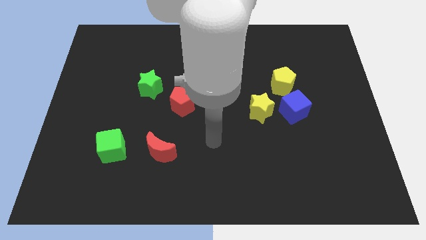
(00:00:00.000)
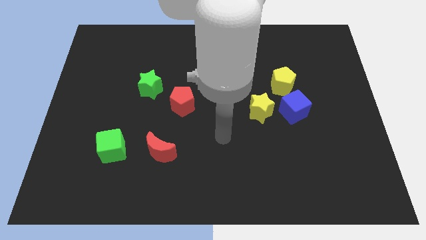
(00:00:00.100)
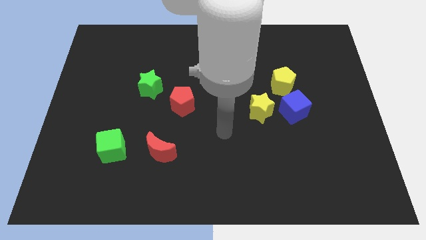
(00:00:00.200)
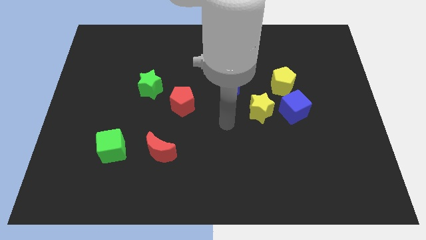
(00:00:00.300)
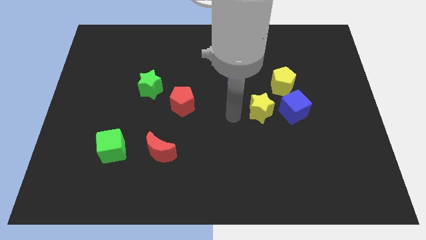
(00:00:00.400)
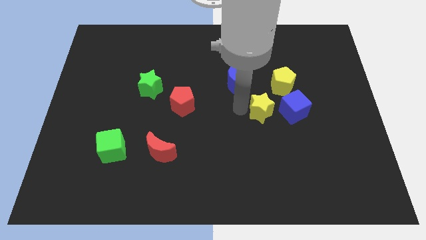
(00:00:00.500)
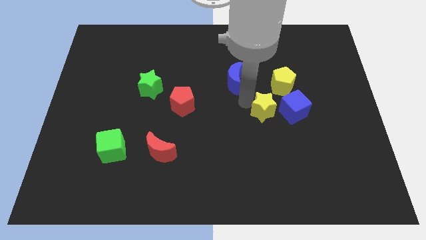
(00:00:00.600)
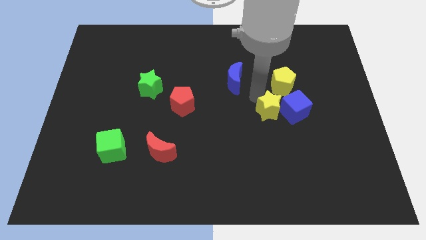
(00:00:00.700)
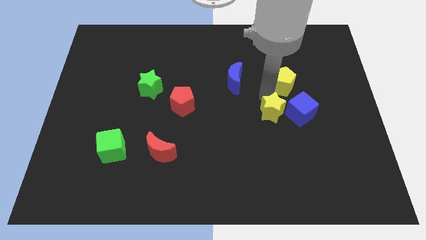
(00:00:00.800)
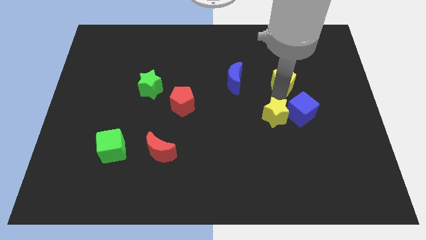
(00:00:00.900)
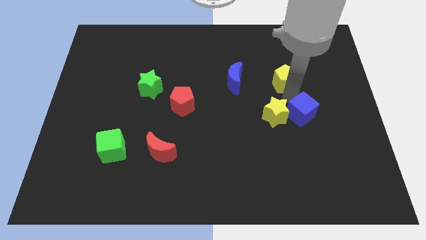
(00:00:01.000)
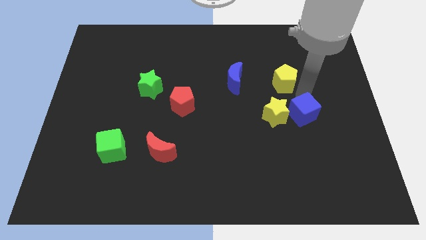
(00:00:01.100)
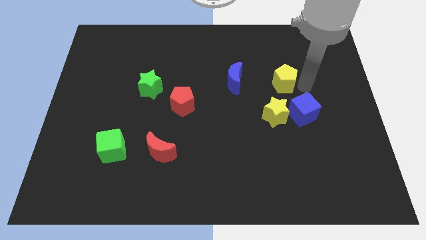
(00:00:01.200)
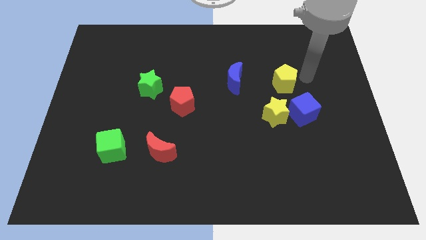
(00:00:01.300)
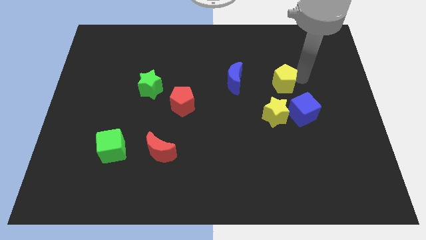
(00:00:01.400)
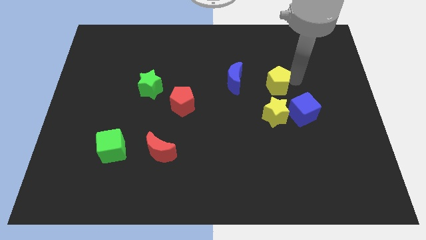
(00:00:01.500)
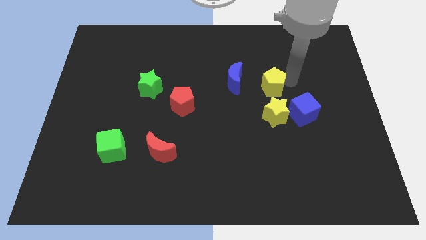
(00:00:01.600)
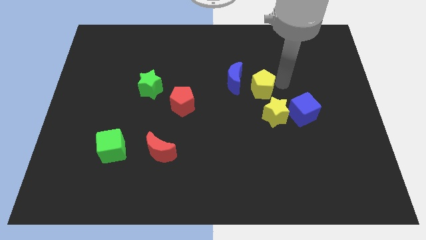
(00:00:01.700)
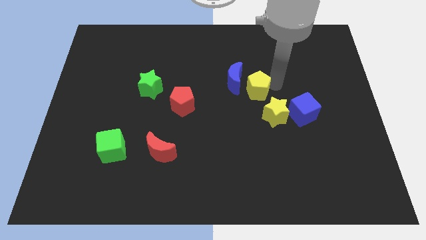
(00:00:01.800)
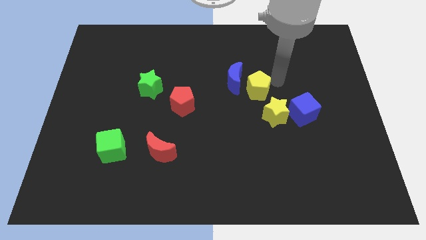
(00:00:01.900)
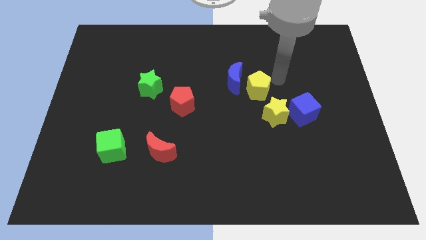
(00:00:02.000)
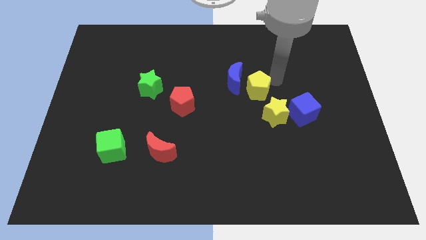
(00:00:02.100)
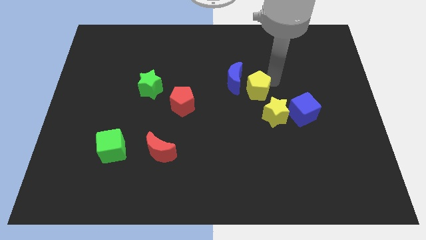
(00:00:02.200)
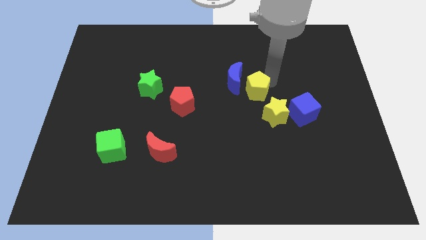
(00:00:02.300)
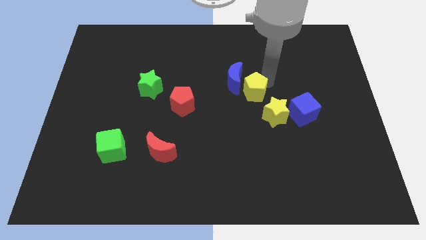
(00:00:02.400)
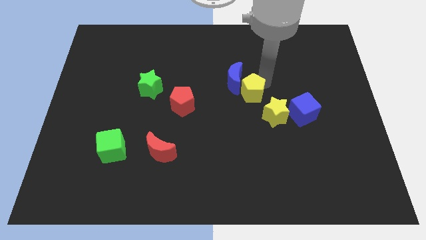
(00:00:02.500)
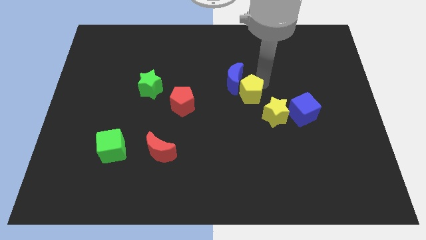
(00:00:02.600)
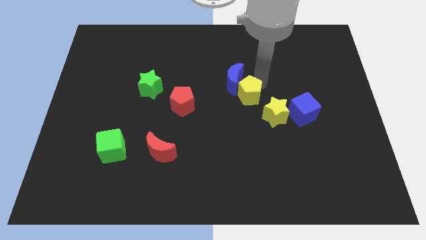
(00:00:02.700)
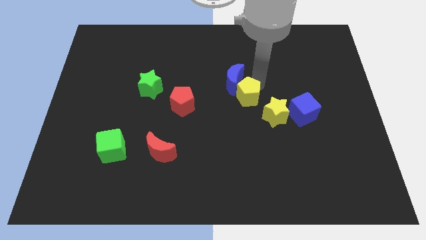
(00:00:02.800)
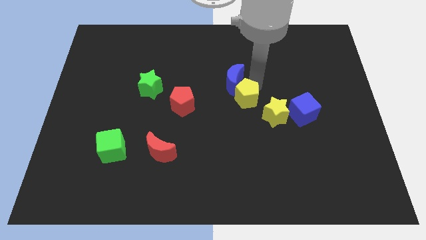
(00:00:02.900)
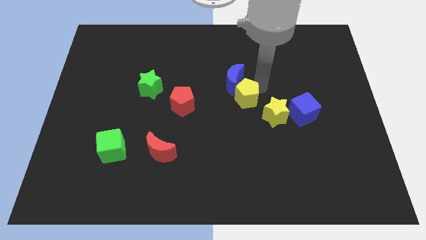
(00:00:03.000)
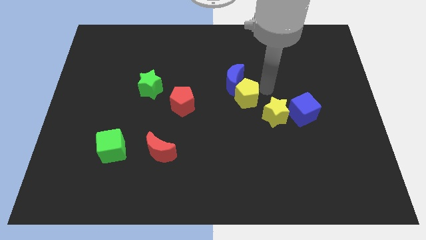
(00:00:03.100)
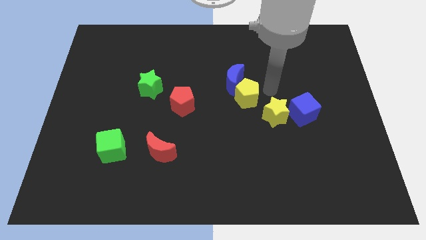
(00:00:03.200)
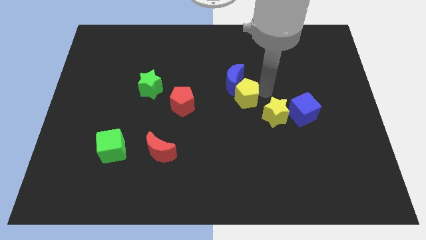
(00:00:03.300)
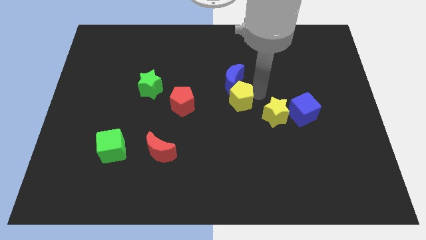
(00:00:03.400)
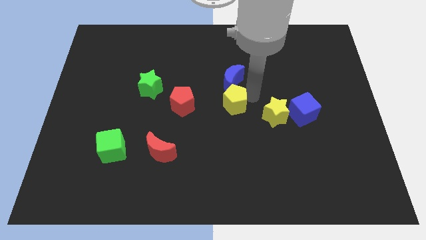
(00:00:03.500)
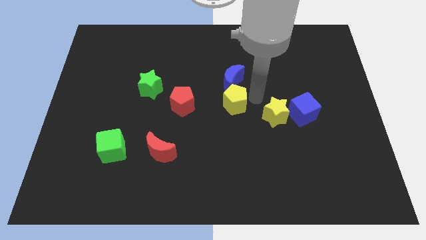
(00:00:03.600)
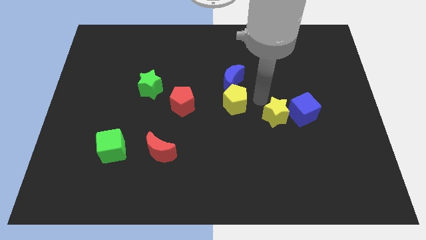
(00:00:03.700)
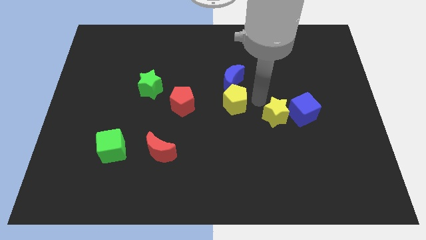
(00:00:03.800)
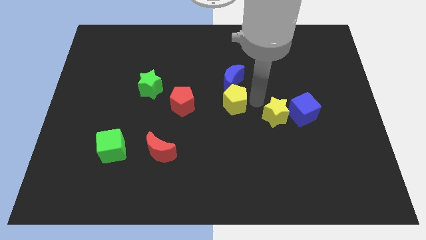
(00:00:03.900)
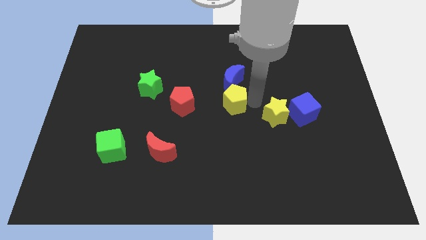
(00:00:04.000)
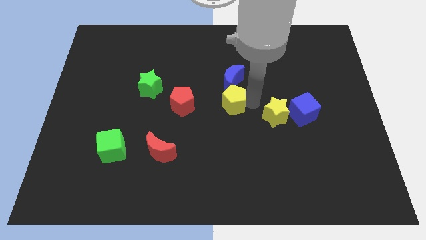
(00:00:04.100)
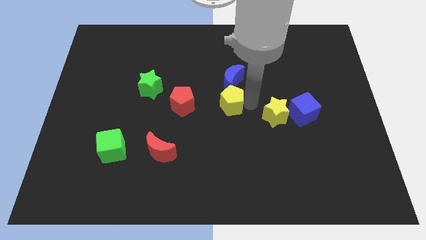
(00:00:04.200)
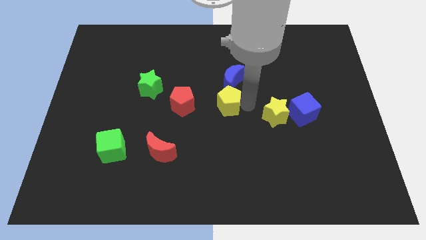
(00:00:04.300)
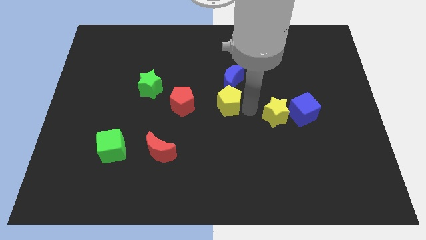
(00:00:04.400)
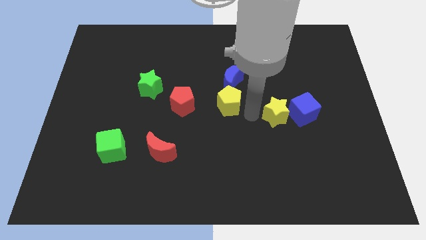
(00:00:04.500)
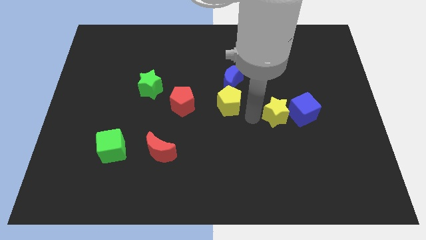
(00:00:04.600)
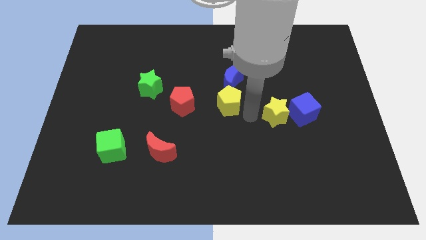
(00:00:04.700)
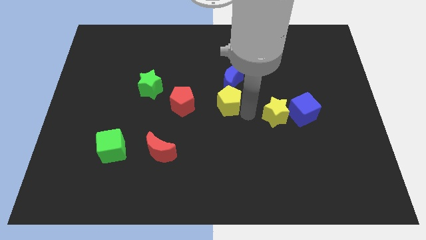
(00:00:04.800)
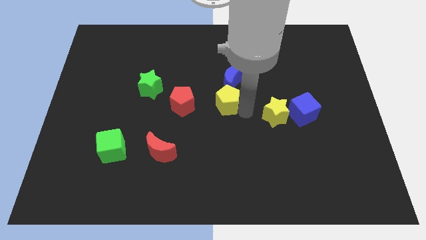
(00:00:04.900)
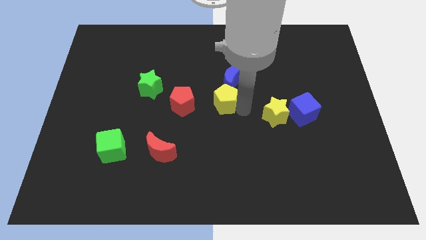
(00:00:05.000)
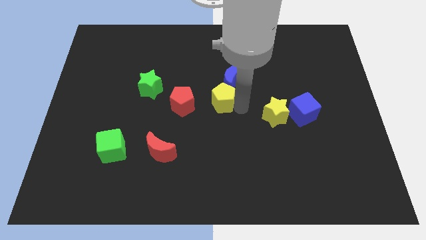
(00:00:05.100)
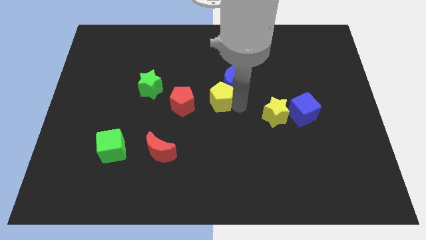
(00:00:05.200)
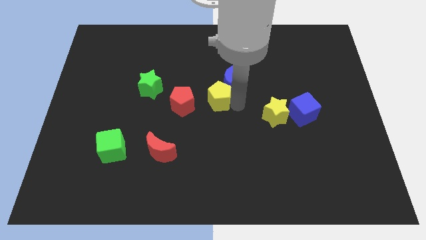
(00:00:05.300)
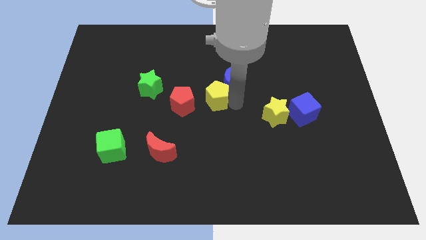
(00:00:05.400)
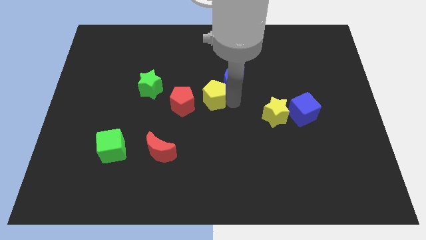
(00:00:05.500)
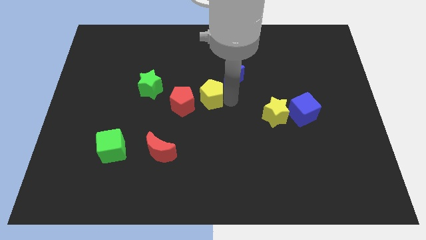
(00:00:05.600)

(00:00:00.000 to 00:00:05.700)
put the yellow pentagon to the right of the green star

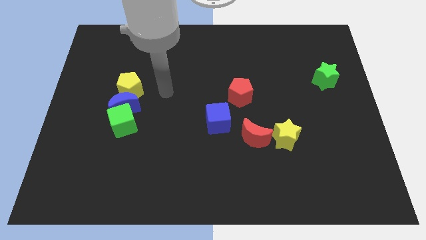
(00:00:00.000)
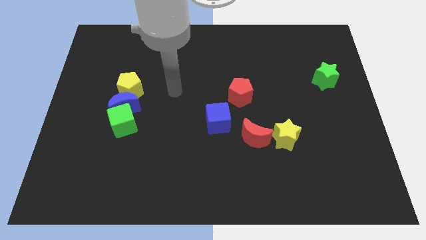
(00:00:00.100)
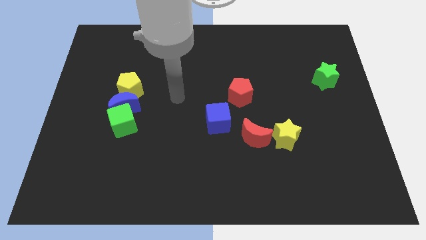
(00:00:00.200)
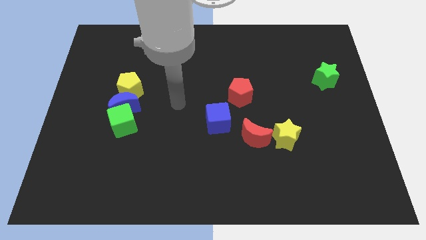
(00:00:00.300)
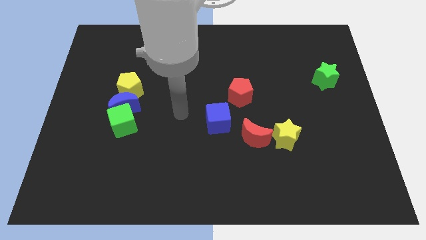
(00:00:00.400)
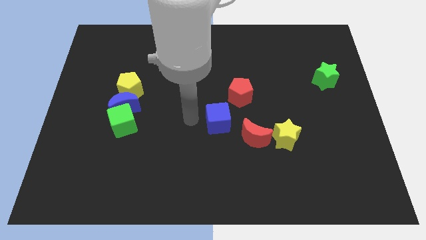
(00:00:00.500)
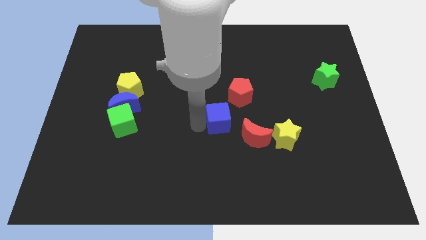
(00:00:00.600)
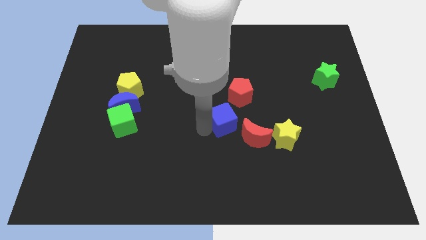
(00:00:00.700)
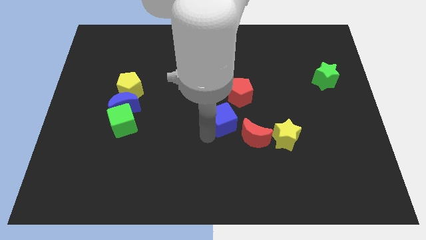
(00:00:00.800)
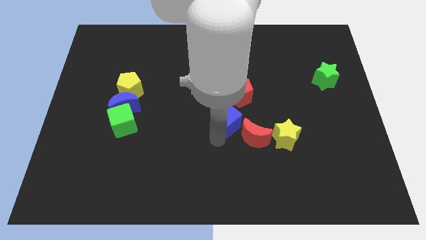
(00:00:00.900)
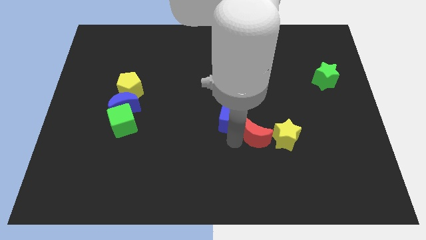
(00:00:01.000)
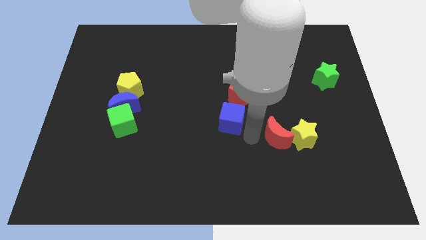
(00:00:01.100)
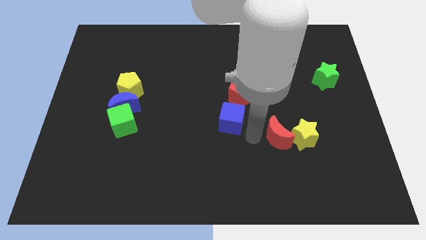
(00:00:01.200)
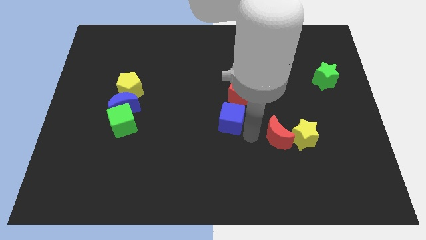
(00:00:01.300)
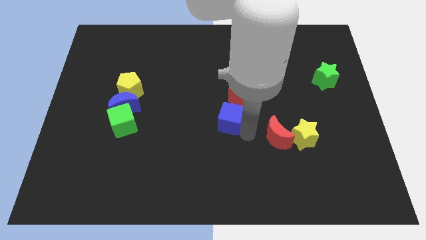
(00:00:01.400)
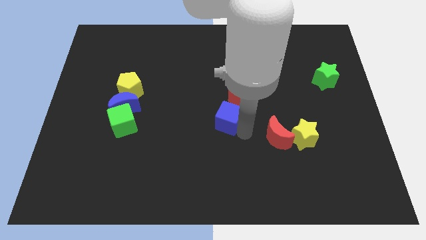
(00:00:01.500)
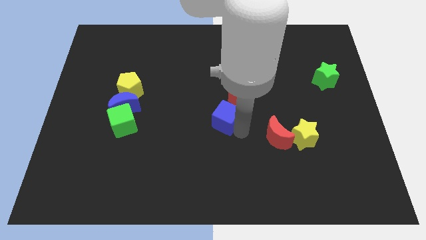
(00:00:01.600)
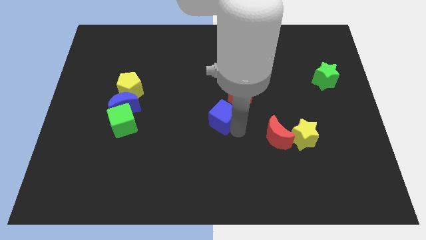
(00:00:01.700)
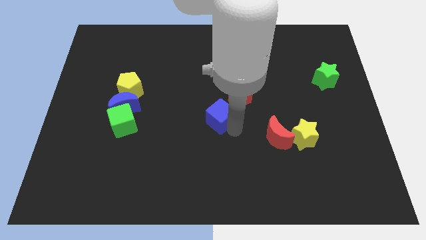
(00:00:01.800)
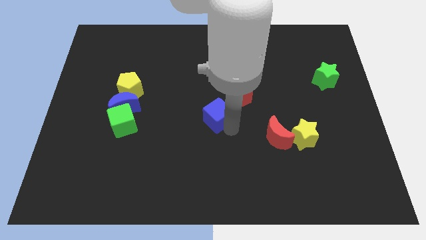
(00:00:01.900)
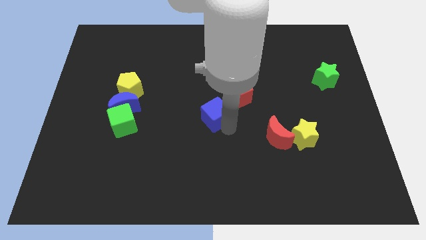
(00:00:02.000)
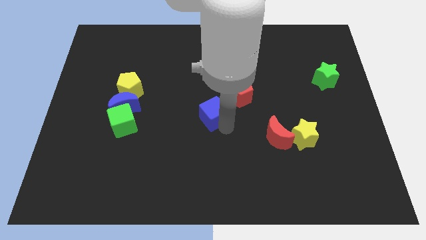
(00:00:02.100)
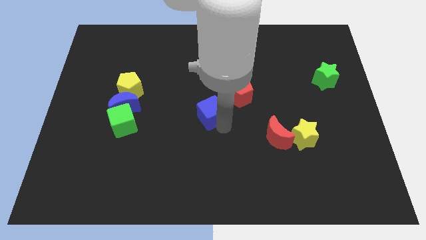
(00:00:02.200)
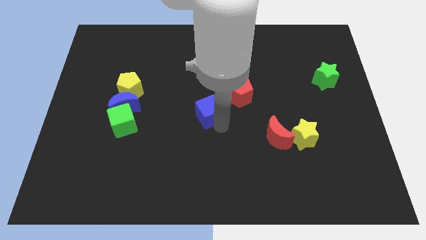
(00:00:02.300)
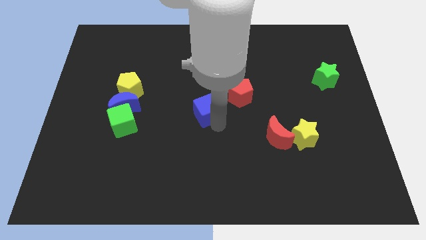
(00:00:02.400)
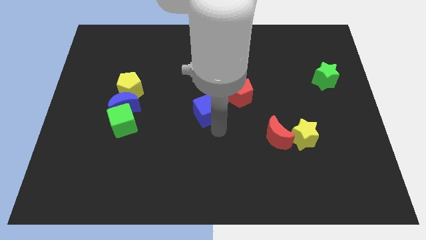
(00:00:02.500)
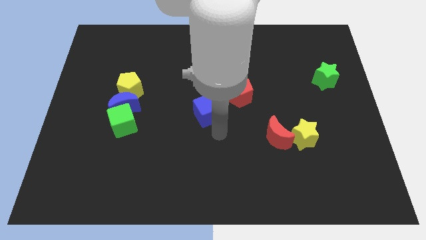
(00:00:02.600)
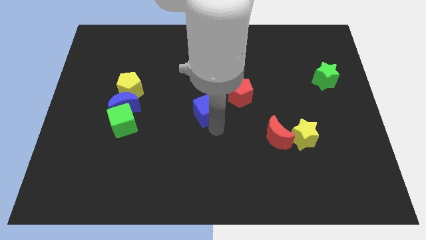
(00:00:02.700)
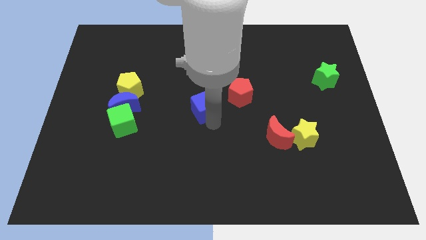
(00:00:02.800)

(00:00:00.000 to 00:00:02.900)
move the blue cube left of the red pentagon
